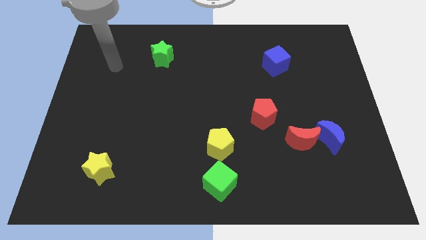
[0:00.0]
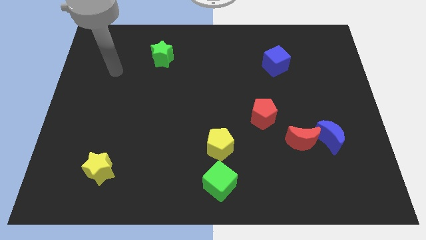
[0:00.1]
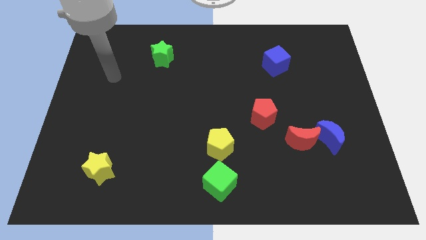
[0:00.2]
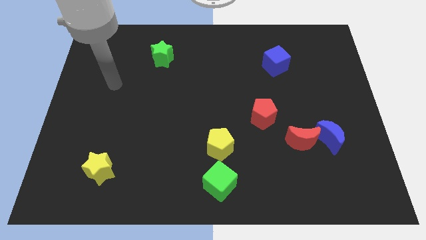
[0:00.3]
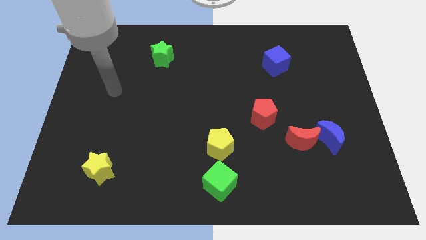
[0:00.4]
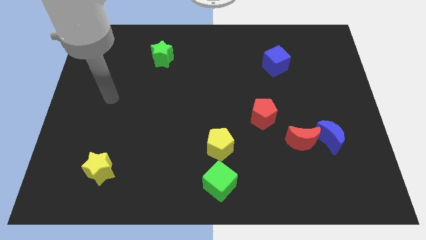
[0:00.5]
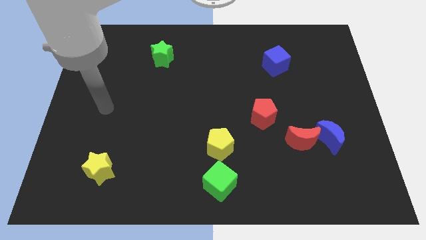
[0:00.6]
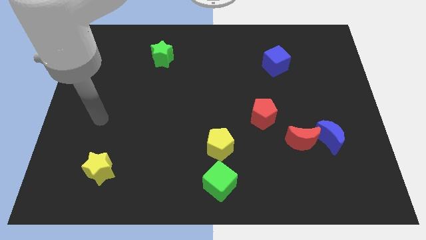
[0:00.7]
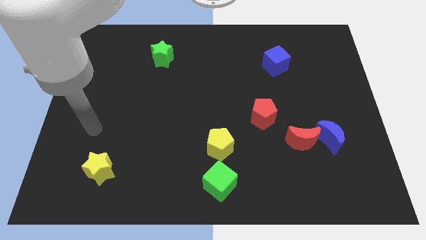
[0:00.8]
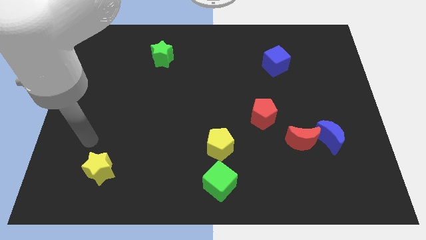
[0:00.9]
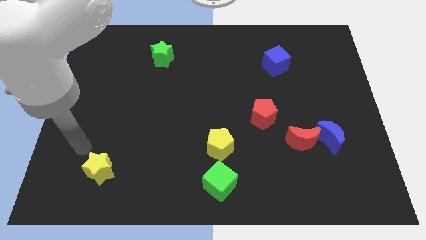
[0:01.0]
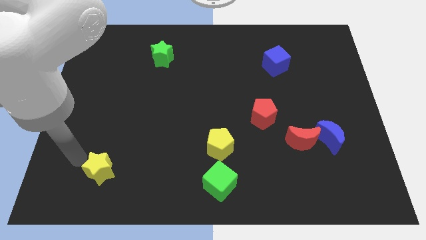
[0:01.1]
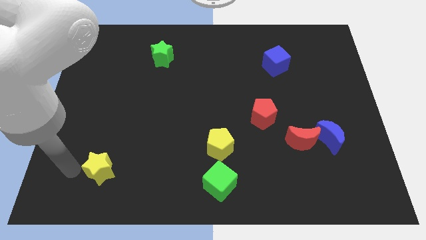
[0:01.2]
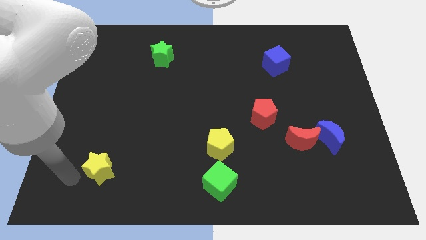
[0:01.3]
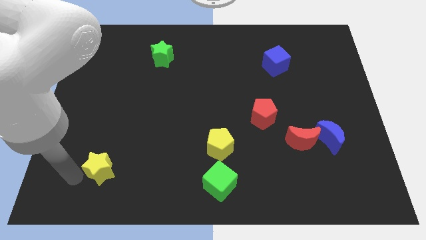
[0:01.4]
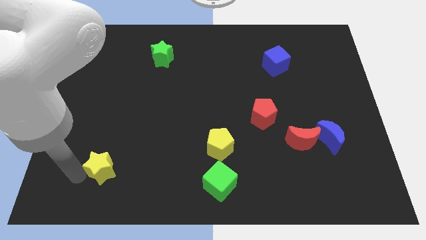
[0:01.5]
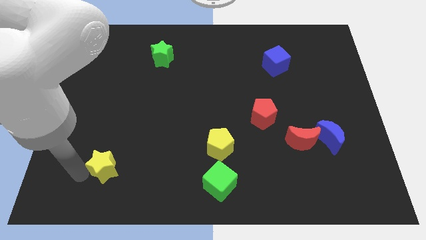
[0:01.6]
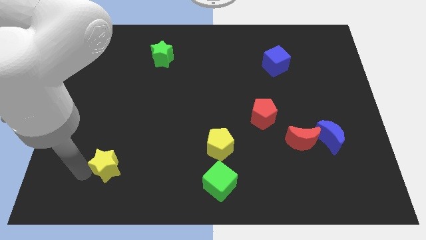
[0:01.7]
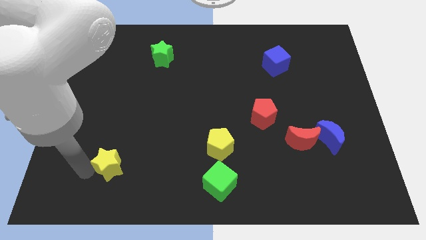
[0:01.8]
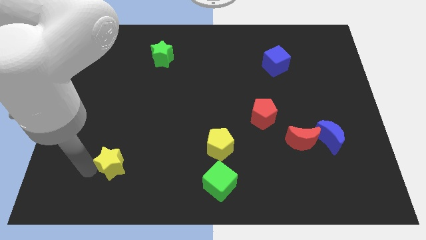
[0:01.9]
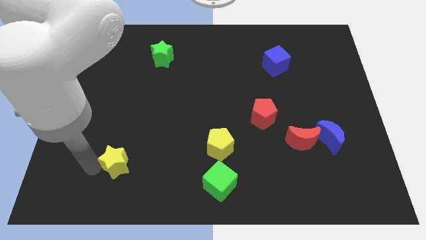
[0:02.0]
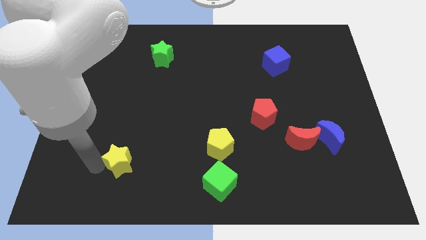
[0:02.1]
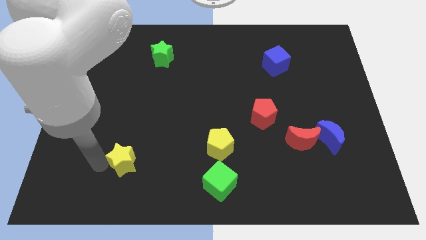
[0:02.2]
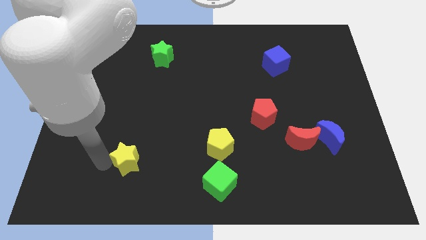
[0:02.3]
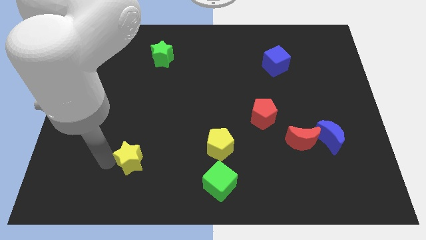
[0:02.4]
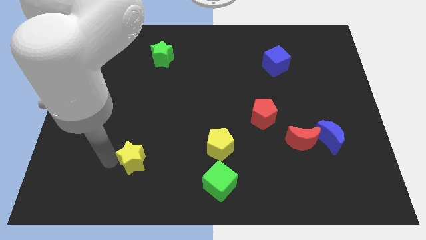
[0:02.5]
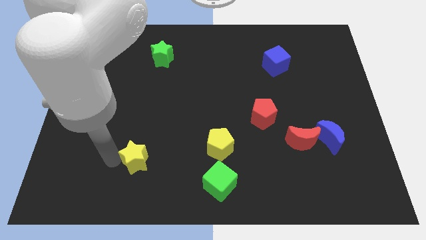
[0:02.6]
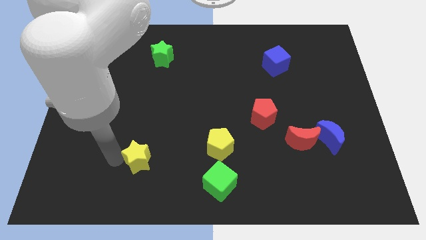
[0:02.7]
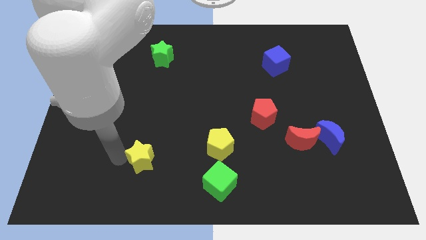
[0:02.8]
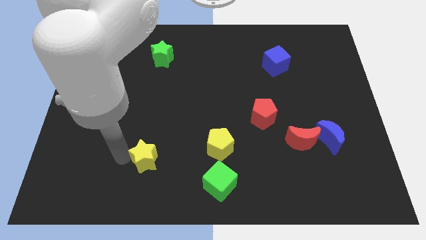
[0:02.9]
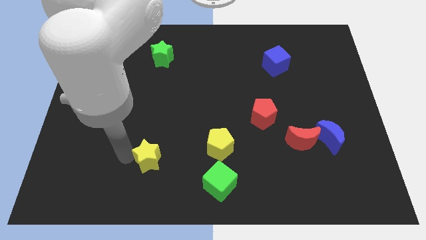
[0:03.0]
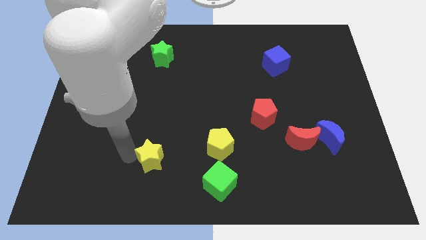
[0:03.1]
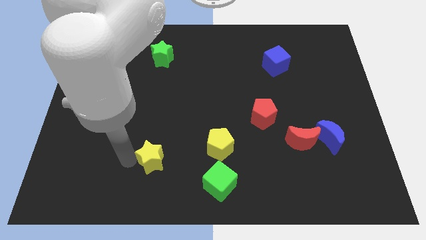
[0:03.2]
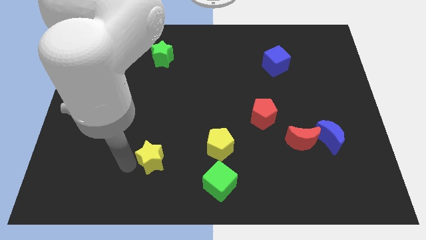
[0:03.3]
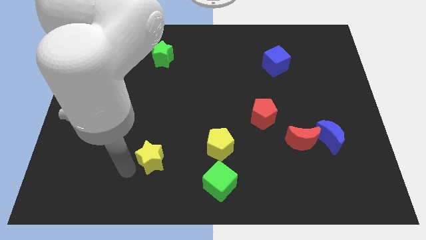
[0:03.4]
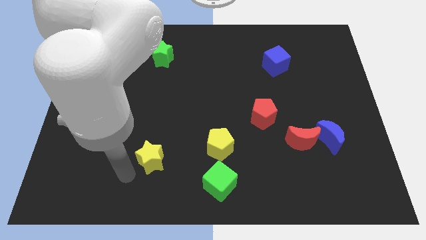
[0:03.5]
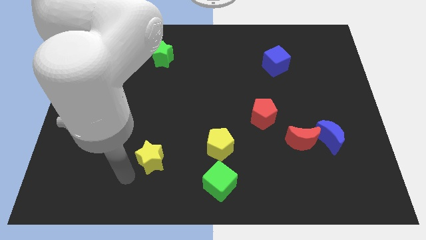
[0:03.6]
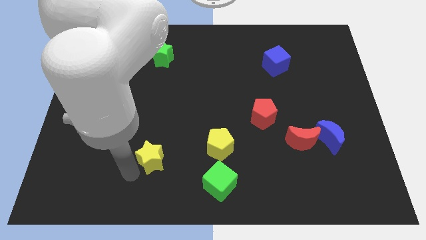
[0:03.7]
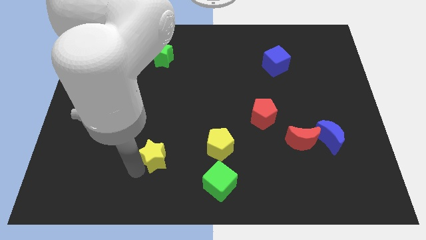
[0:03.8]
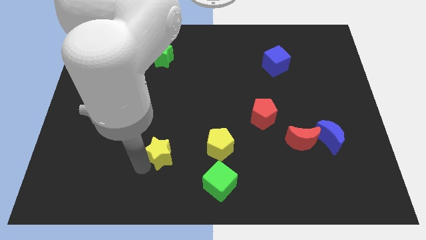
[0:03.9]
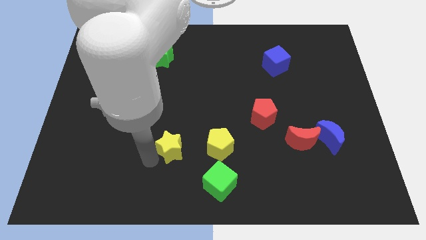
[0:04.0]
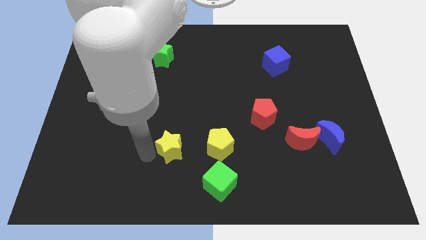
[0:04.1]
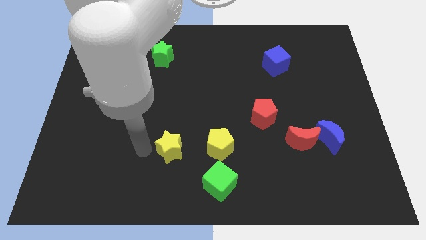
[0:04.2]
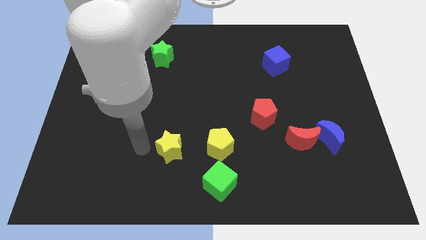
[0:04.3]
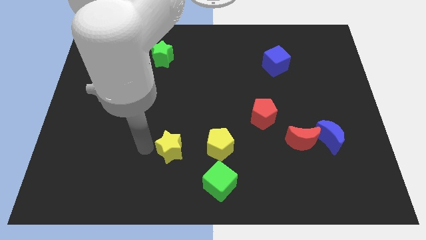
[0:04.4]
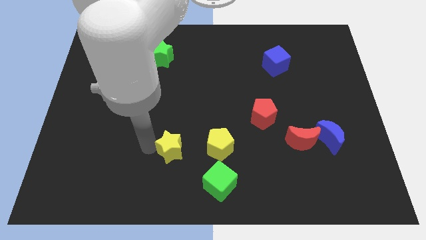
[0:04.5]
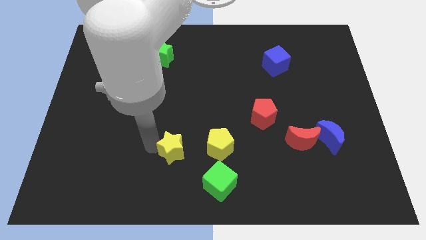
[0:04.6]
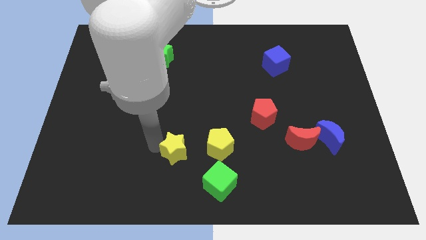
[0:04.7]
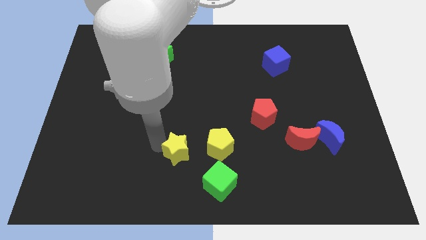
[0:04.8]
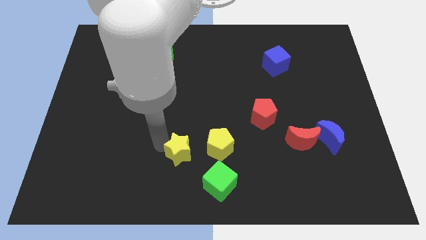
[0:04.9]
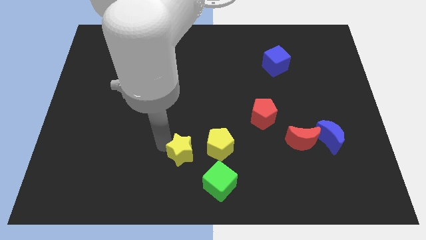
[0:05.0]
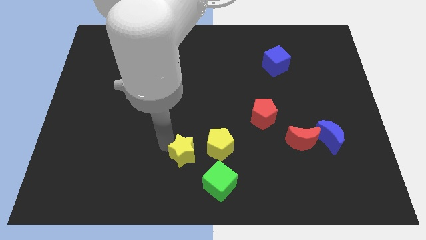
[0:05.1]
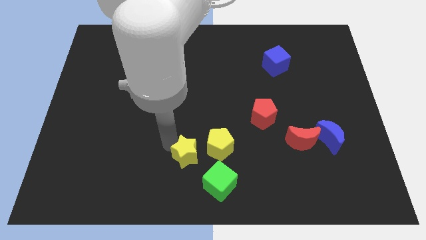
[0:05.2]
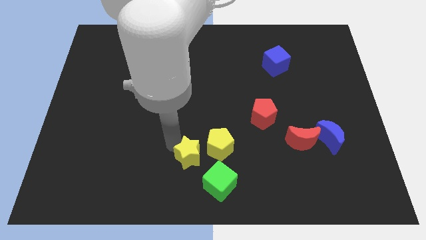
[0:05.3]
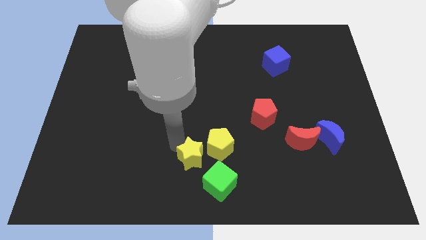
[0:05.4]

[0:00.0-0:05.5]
move the yellow star to the yellow pentagon

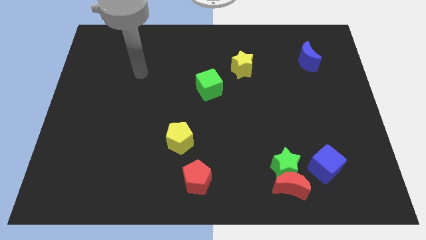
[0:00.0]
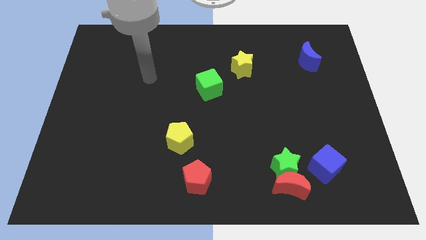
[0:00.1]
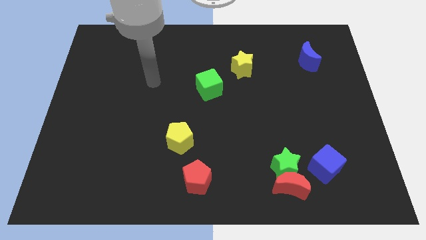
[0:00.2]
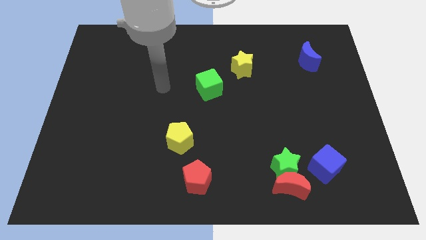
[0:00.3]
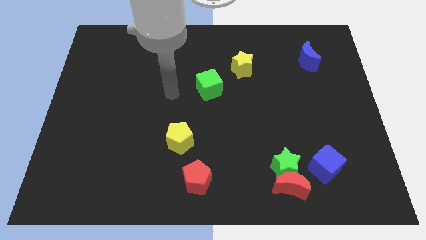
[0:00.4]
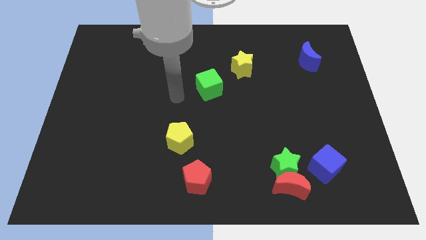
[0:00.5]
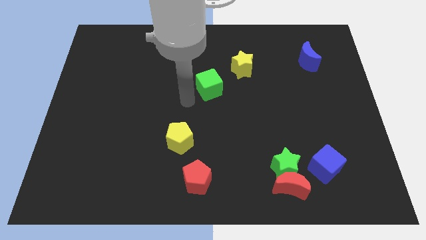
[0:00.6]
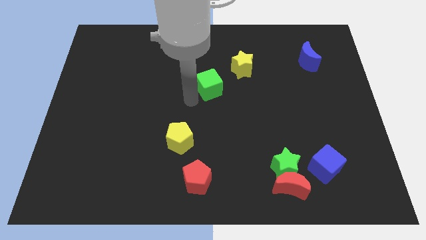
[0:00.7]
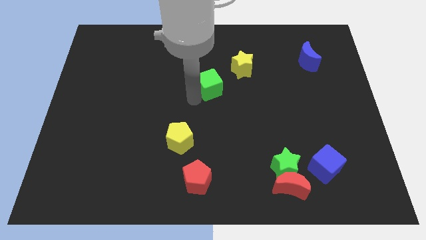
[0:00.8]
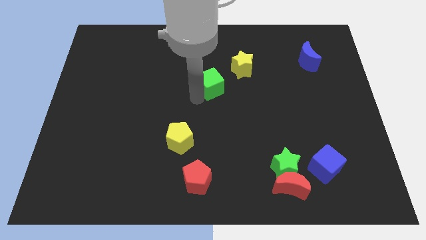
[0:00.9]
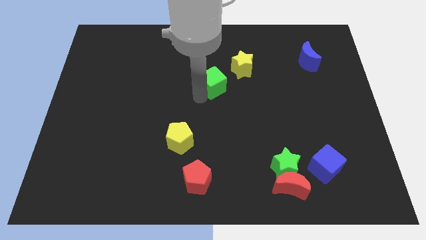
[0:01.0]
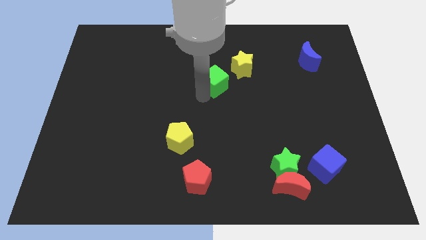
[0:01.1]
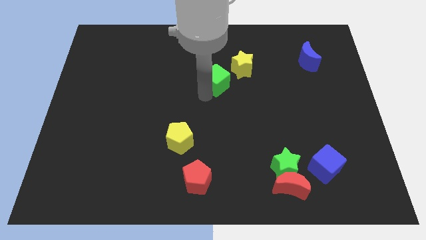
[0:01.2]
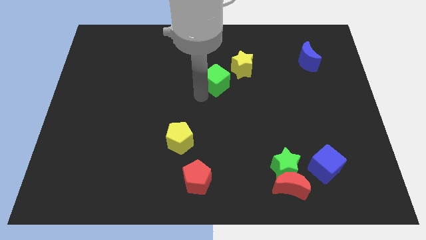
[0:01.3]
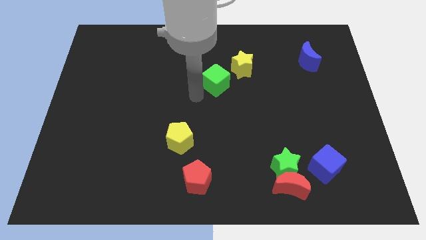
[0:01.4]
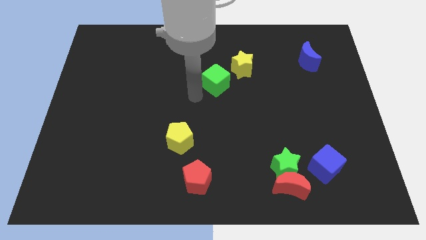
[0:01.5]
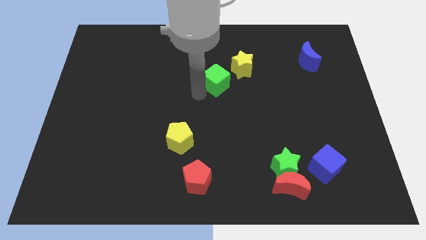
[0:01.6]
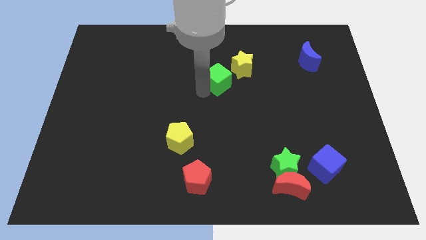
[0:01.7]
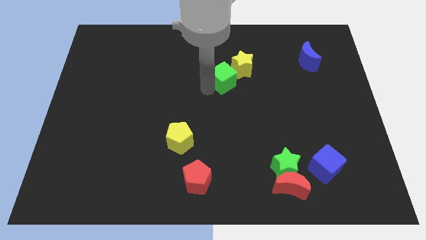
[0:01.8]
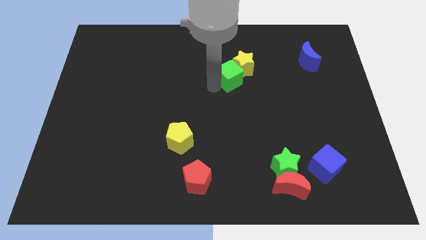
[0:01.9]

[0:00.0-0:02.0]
move the green cube next to the yellow star
